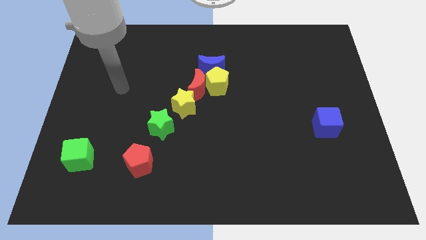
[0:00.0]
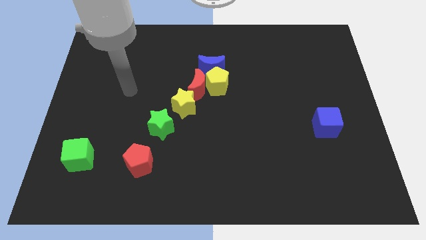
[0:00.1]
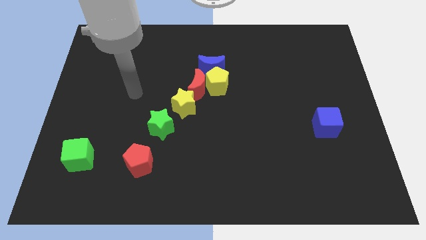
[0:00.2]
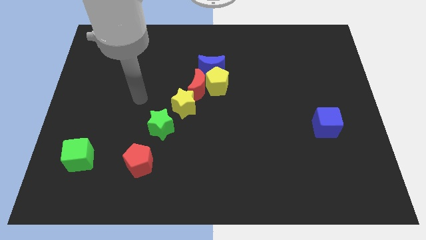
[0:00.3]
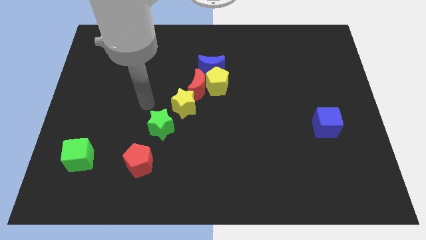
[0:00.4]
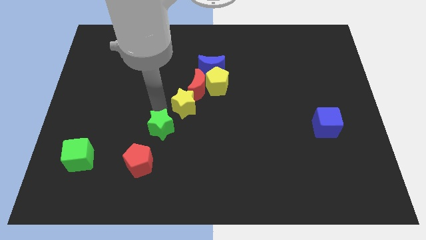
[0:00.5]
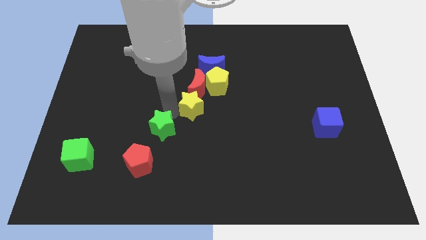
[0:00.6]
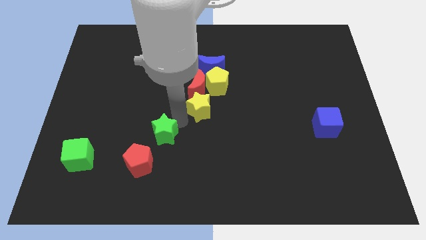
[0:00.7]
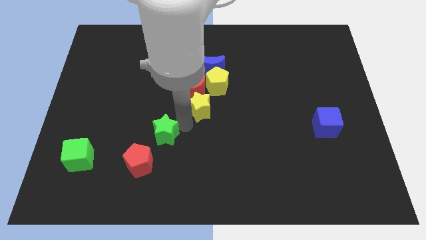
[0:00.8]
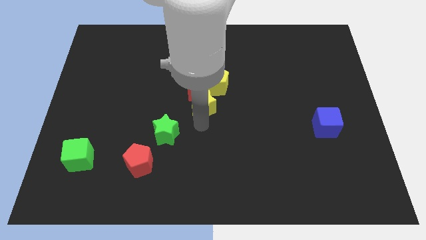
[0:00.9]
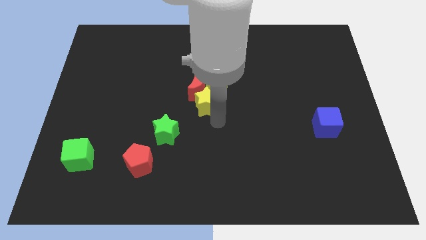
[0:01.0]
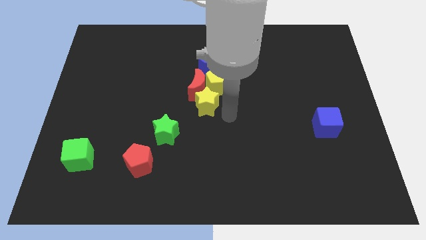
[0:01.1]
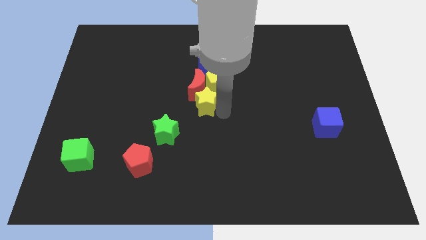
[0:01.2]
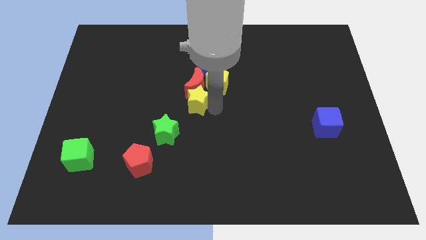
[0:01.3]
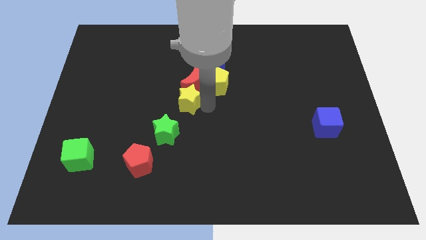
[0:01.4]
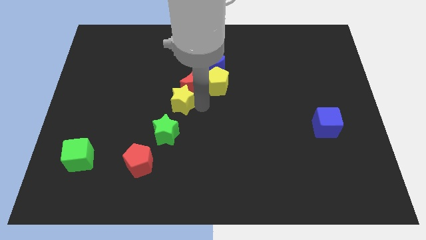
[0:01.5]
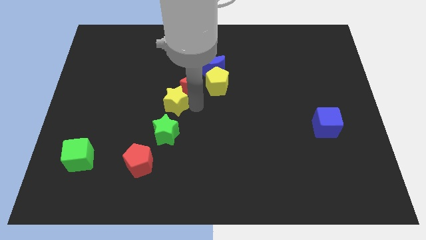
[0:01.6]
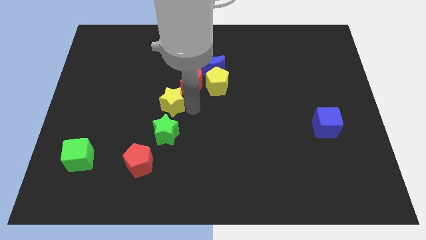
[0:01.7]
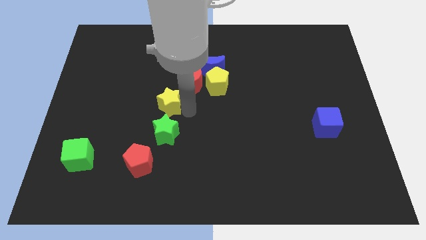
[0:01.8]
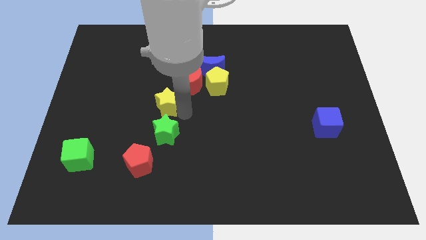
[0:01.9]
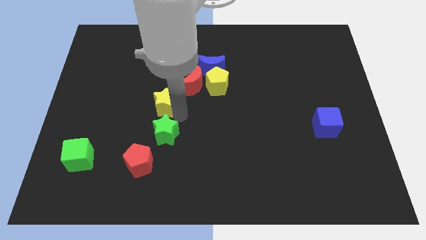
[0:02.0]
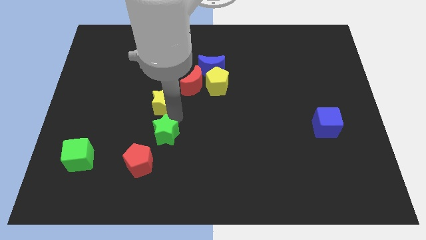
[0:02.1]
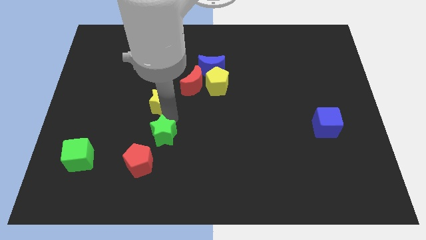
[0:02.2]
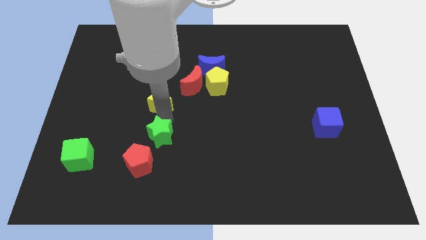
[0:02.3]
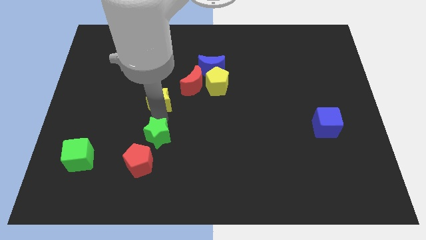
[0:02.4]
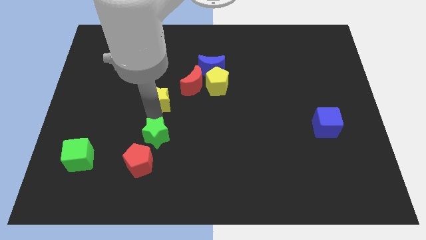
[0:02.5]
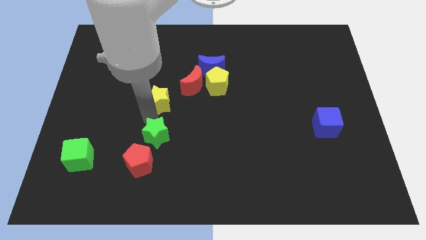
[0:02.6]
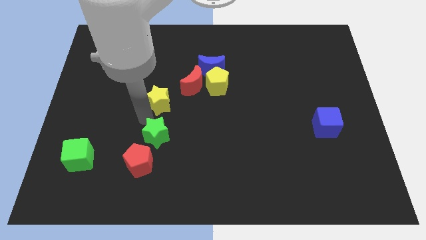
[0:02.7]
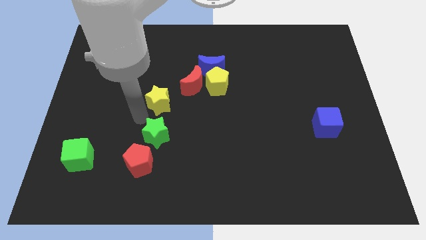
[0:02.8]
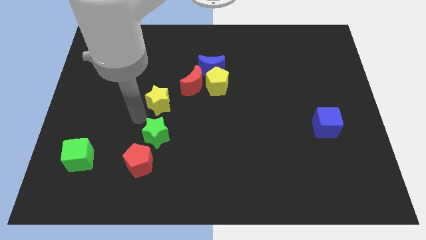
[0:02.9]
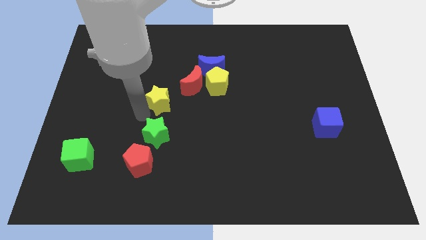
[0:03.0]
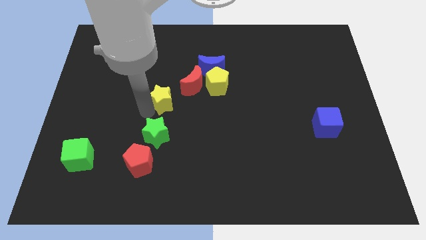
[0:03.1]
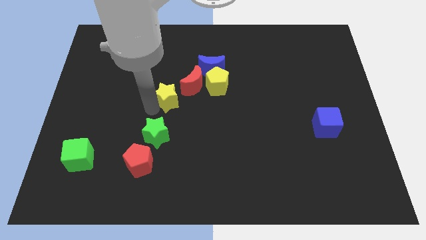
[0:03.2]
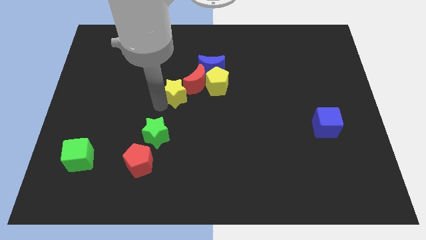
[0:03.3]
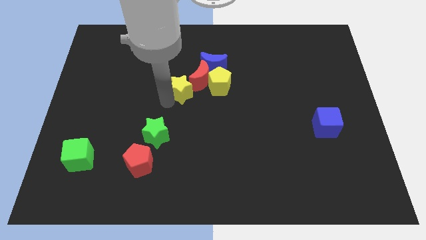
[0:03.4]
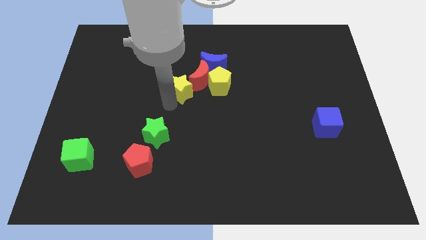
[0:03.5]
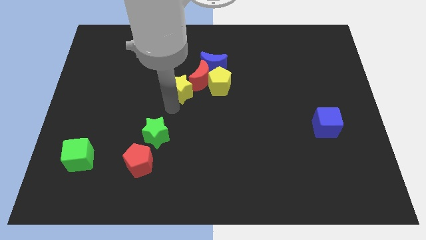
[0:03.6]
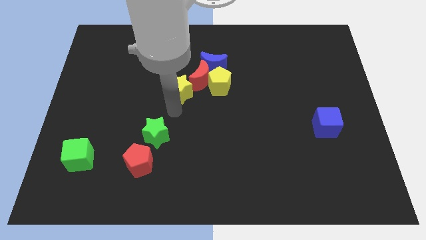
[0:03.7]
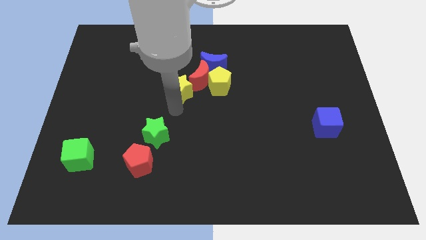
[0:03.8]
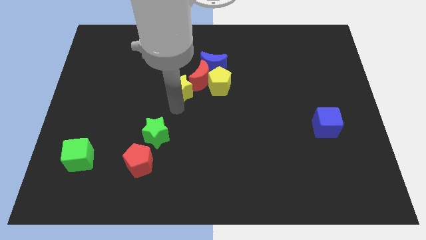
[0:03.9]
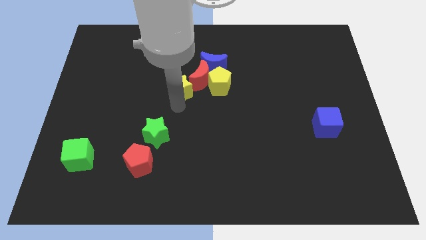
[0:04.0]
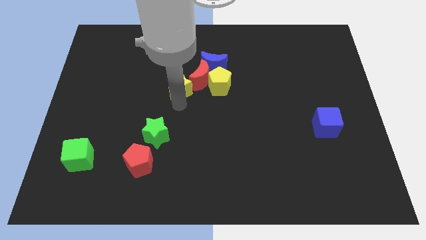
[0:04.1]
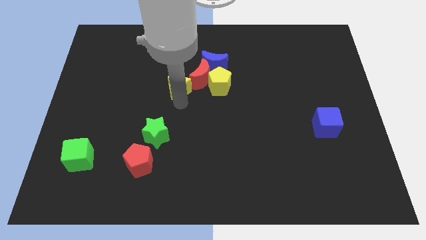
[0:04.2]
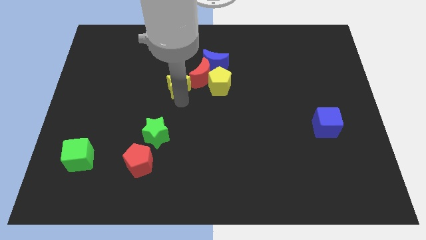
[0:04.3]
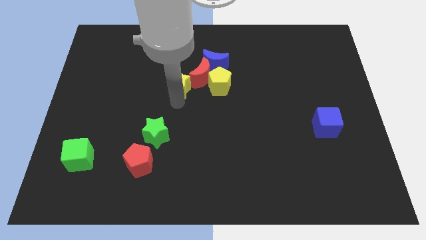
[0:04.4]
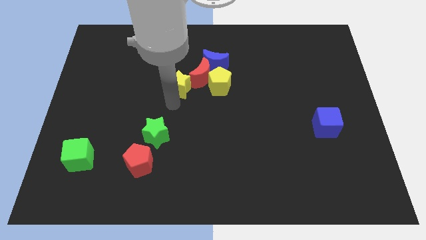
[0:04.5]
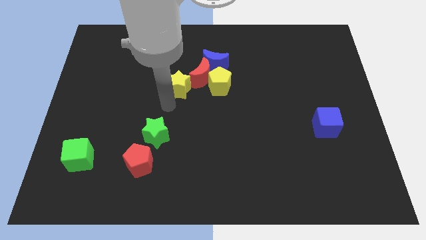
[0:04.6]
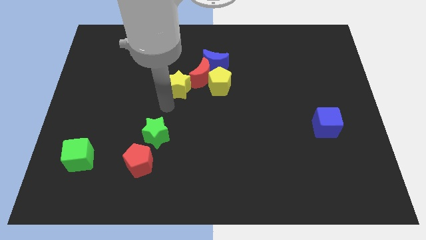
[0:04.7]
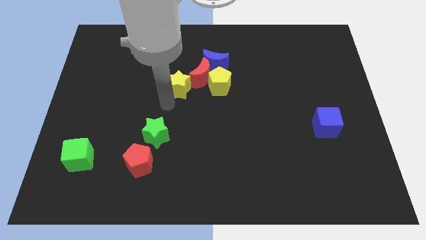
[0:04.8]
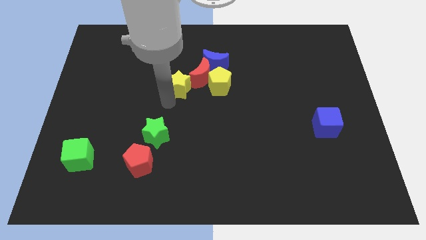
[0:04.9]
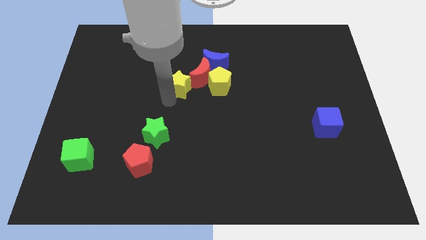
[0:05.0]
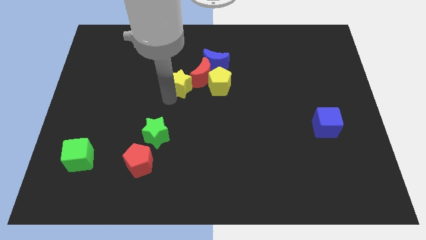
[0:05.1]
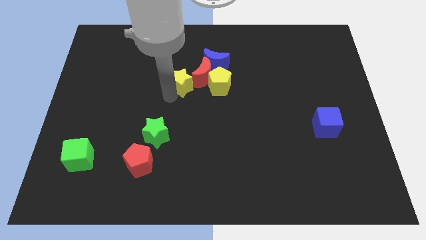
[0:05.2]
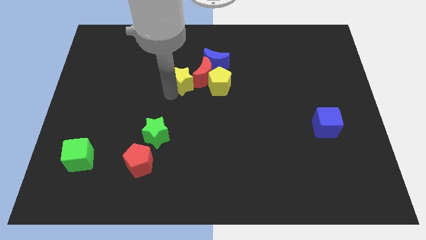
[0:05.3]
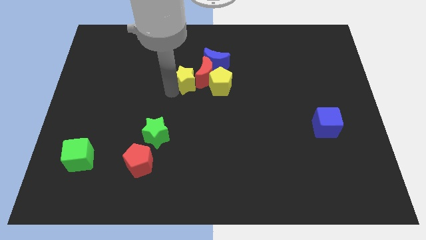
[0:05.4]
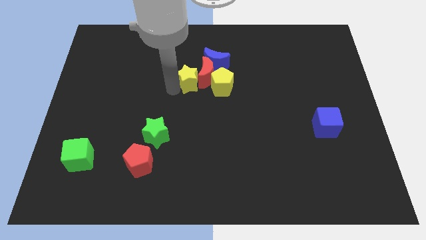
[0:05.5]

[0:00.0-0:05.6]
slide the yellow star to the top left of the yellow pentagon
